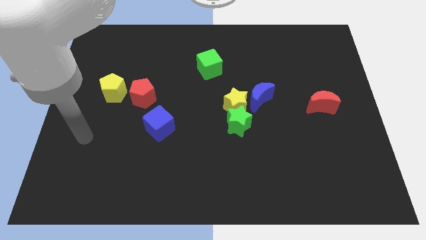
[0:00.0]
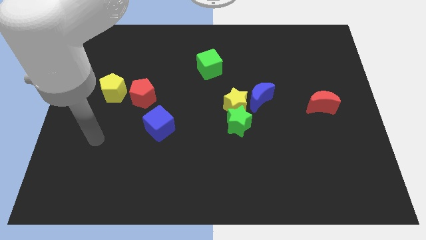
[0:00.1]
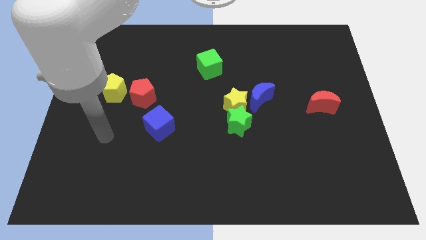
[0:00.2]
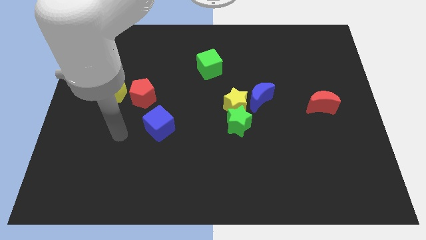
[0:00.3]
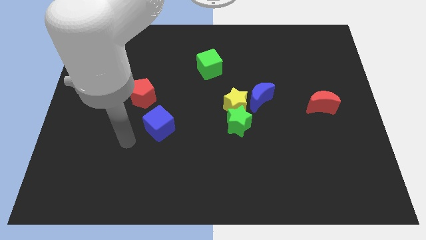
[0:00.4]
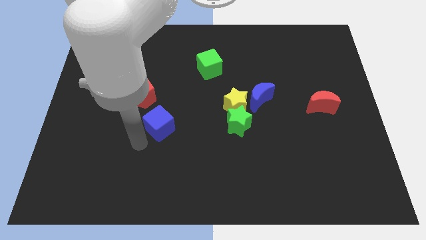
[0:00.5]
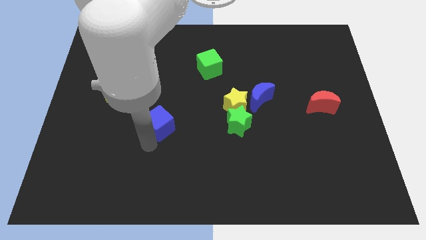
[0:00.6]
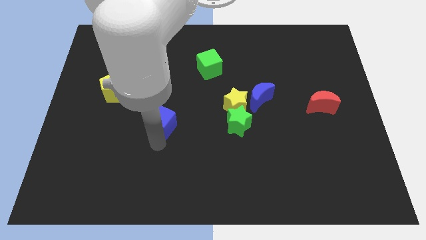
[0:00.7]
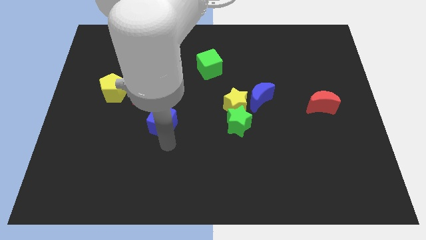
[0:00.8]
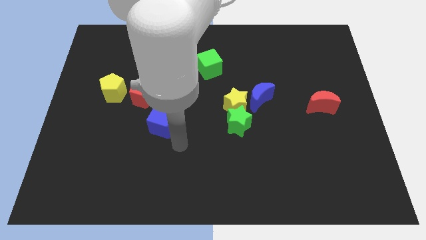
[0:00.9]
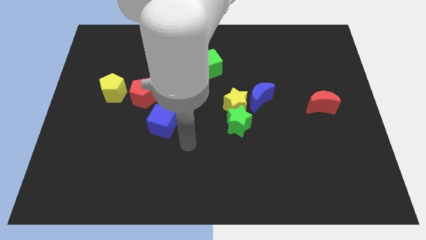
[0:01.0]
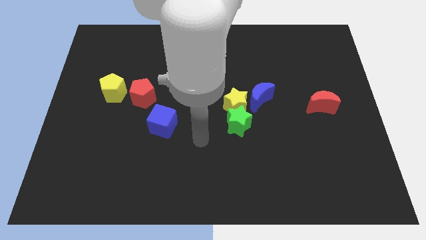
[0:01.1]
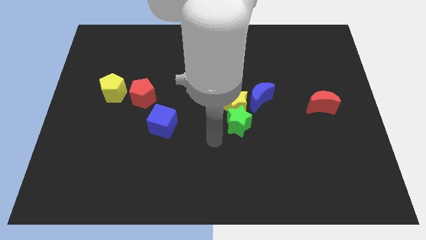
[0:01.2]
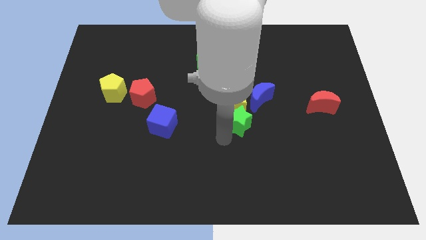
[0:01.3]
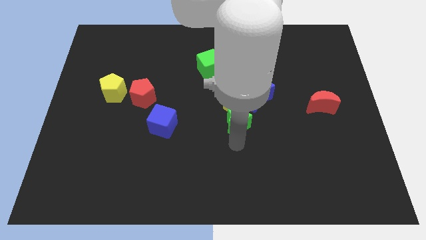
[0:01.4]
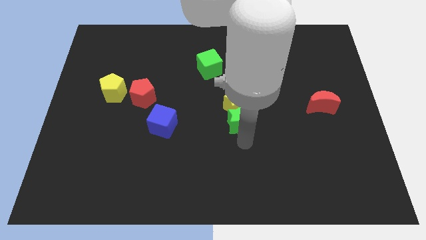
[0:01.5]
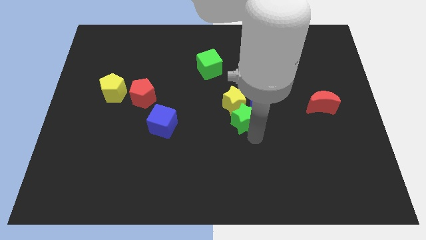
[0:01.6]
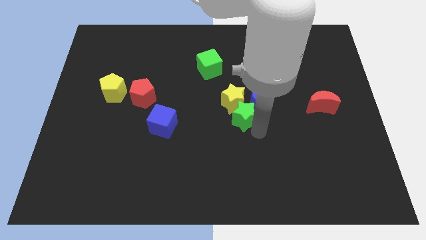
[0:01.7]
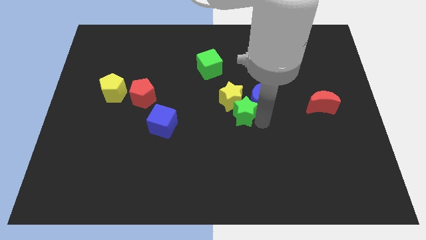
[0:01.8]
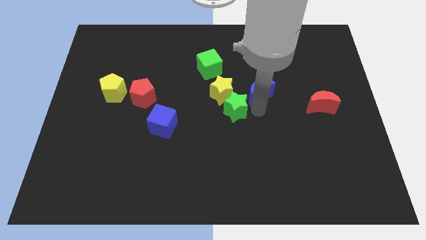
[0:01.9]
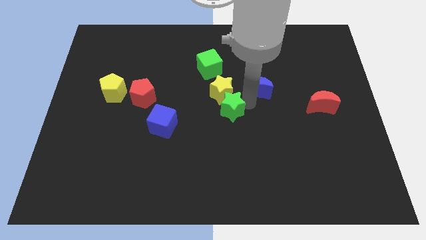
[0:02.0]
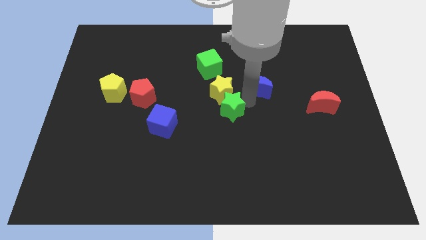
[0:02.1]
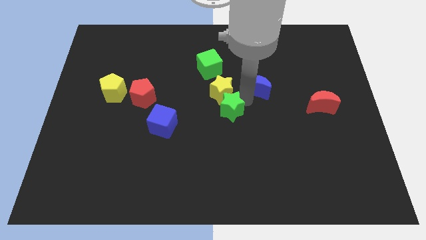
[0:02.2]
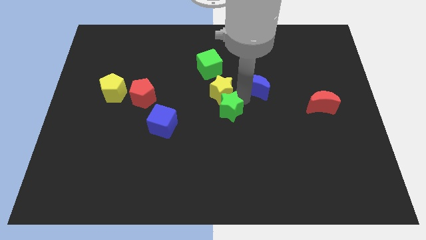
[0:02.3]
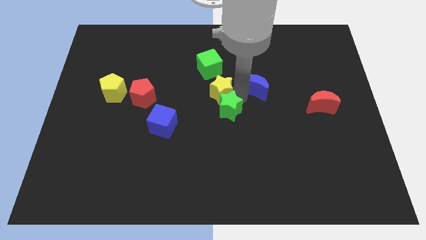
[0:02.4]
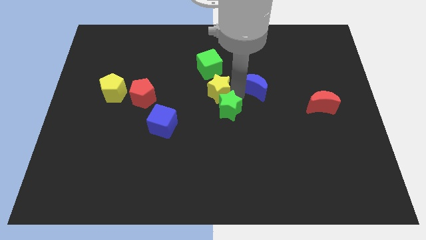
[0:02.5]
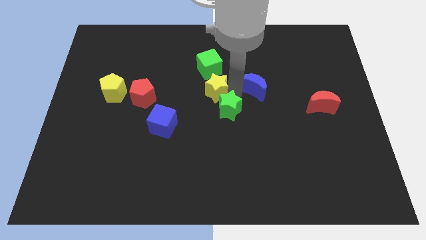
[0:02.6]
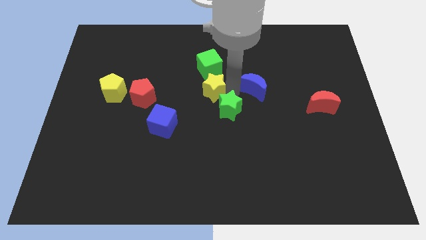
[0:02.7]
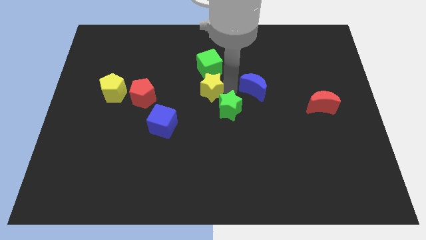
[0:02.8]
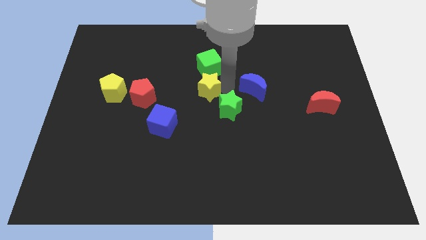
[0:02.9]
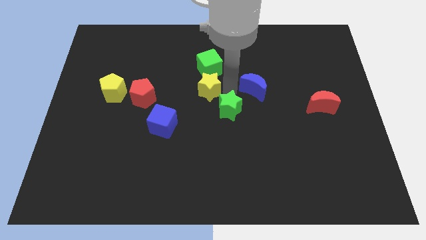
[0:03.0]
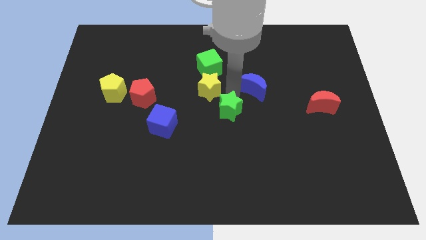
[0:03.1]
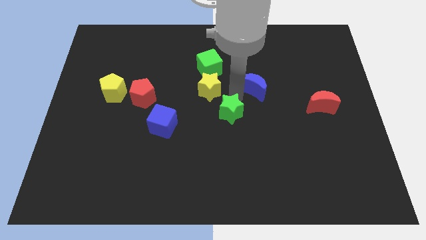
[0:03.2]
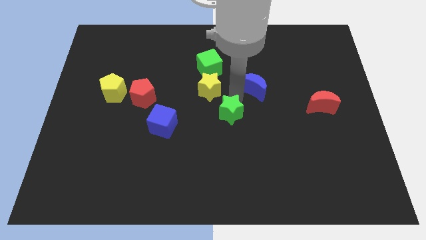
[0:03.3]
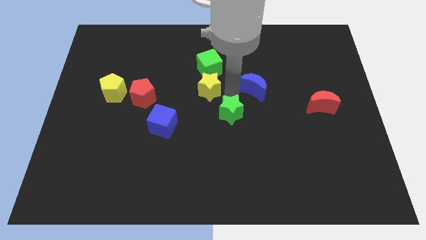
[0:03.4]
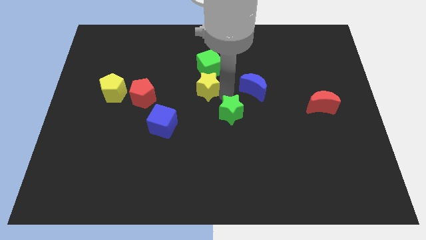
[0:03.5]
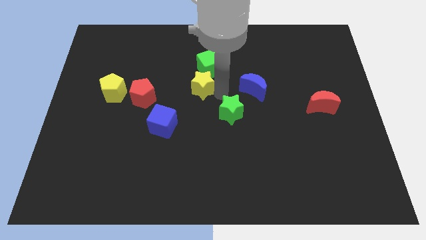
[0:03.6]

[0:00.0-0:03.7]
move the yellow star away from the green star and blue moon

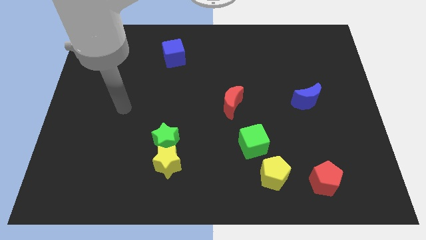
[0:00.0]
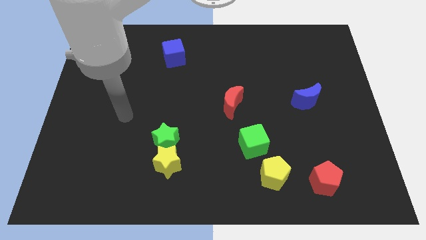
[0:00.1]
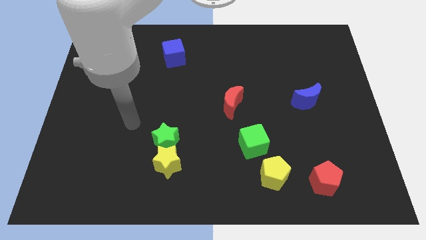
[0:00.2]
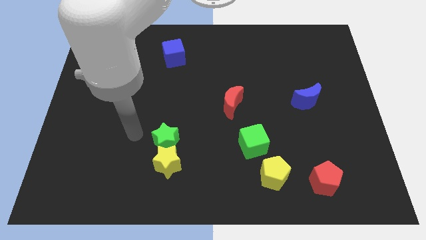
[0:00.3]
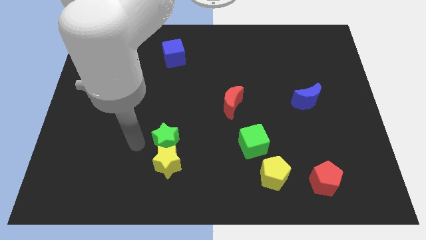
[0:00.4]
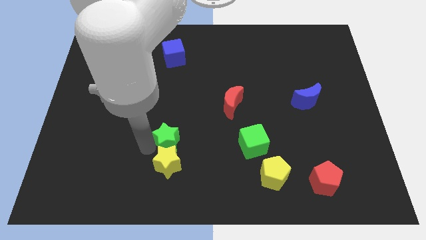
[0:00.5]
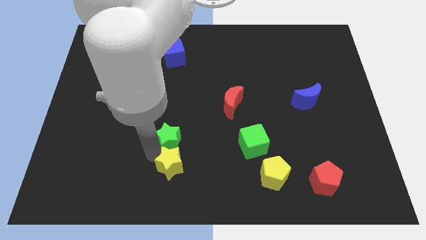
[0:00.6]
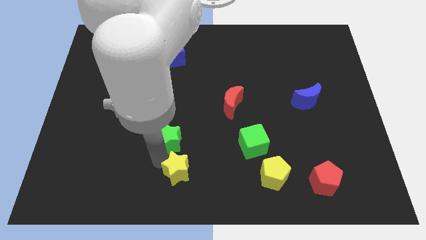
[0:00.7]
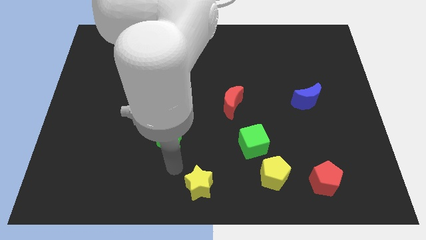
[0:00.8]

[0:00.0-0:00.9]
move the green star away from the yellow star

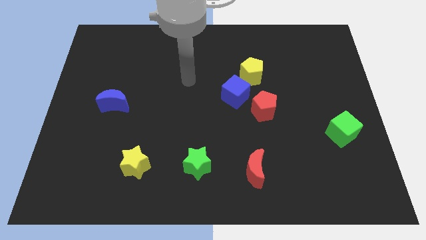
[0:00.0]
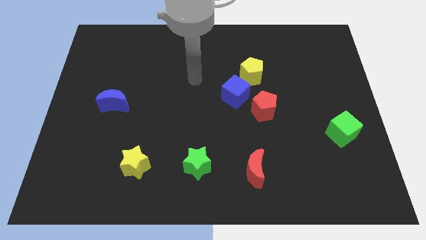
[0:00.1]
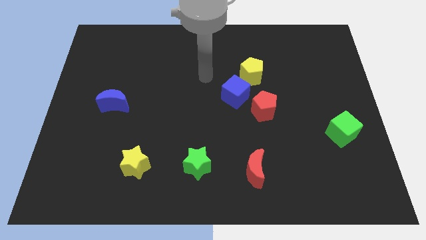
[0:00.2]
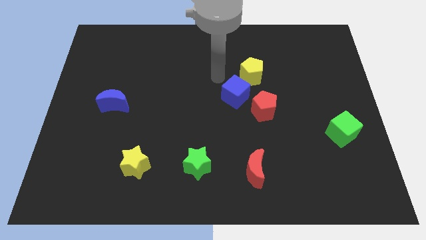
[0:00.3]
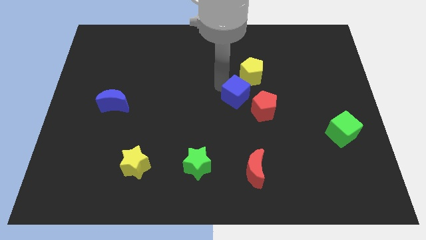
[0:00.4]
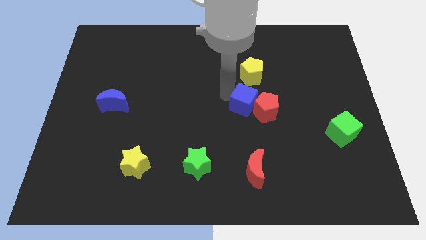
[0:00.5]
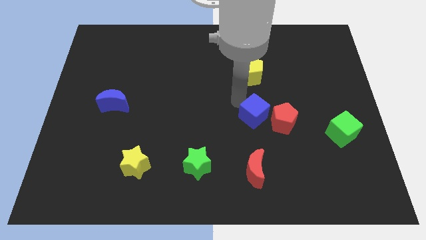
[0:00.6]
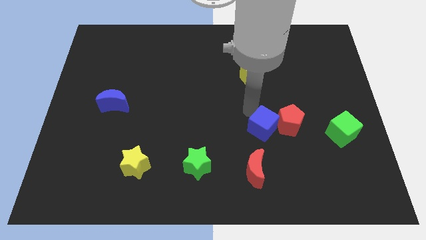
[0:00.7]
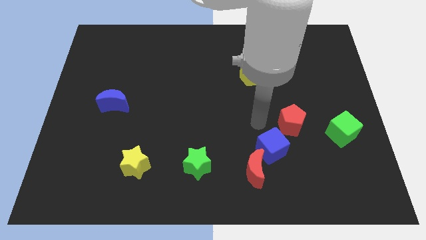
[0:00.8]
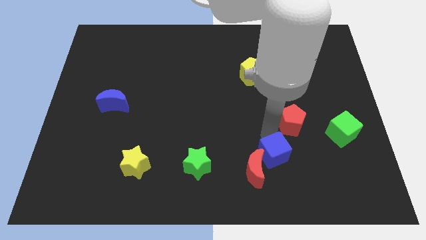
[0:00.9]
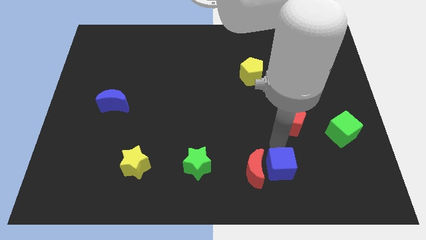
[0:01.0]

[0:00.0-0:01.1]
separate the red pentagon from the blue cube

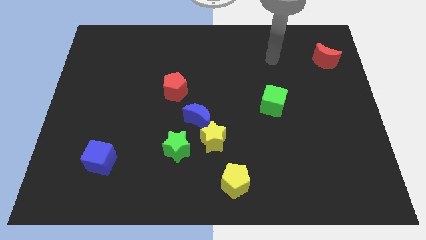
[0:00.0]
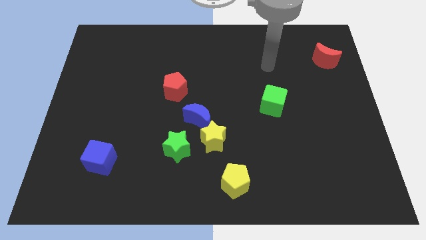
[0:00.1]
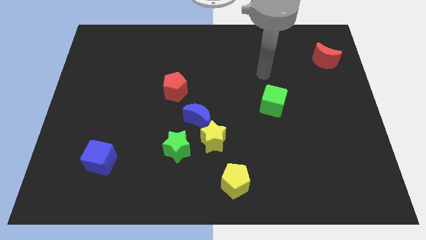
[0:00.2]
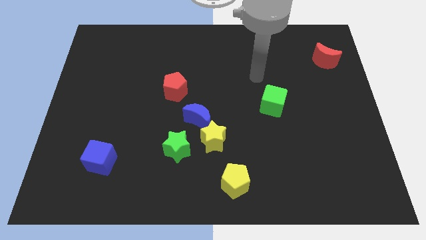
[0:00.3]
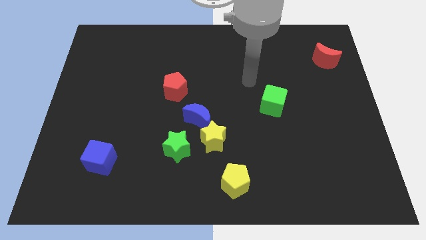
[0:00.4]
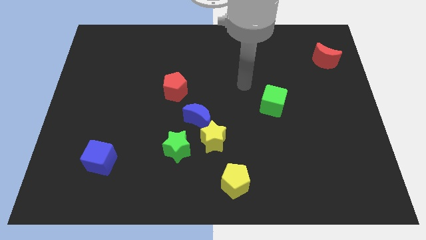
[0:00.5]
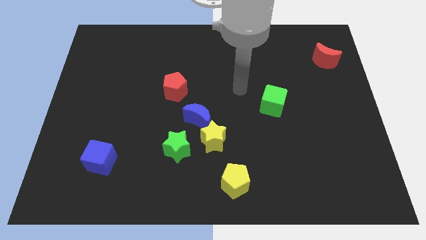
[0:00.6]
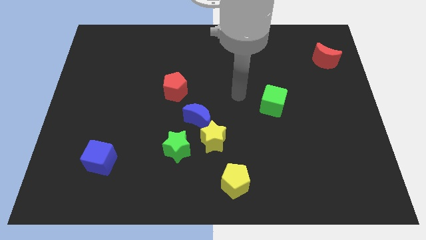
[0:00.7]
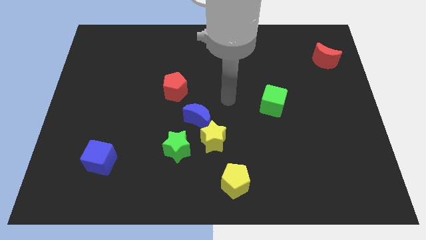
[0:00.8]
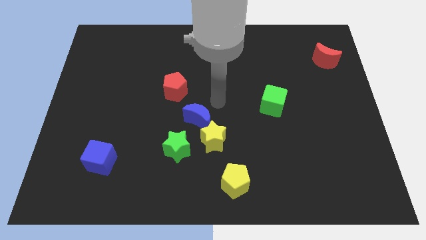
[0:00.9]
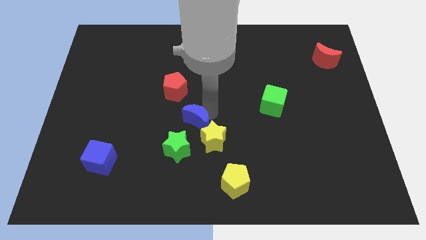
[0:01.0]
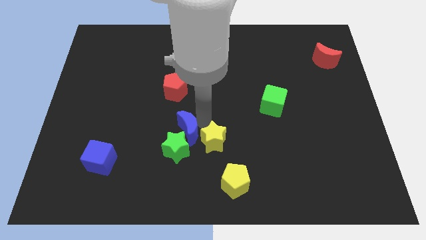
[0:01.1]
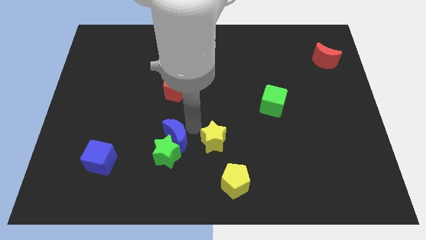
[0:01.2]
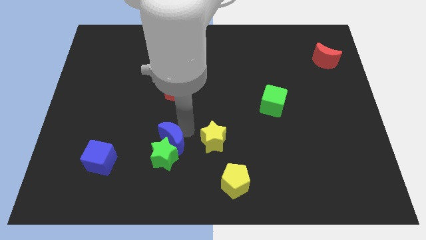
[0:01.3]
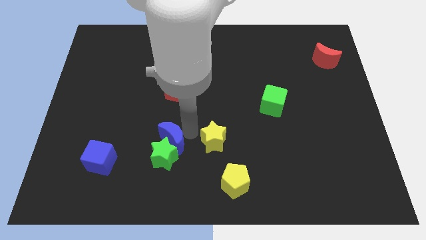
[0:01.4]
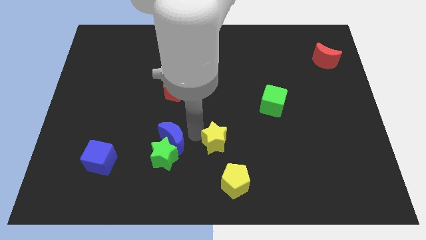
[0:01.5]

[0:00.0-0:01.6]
pull the yellow star apart from the blue moon and green star

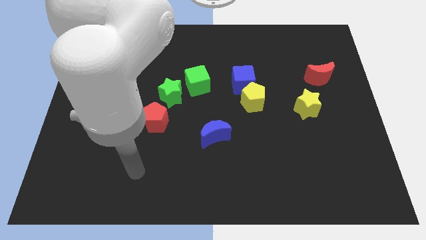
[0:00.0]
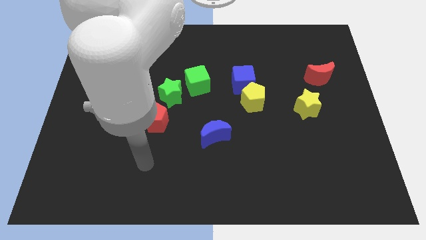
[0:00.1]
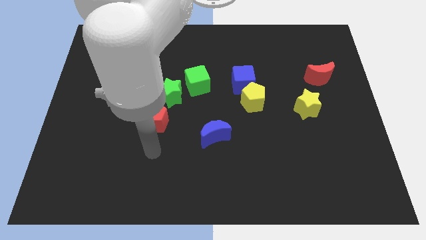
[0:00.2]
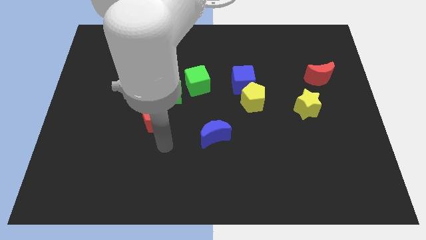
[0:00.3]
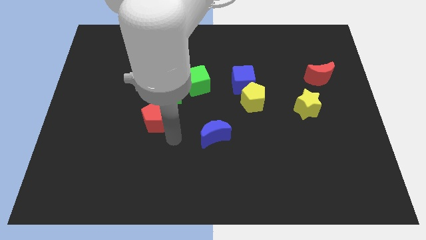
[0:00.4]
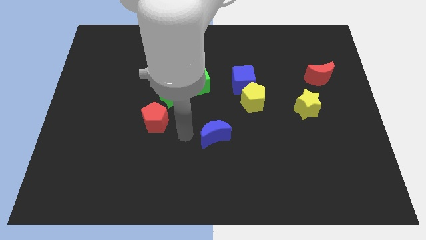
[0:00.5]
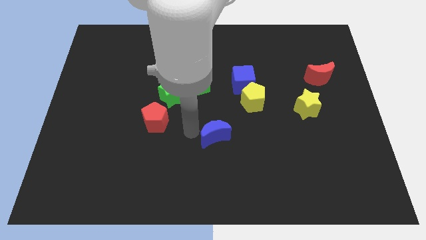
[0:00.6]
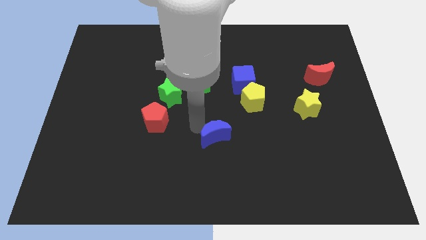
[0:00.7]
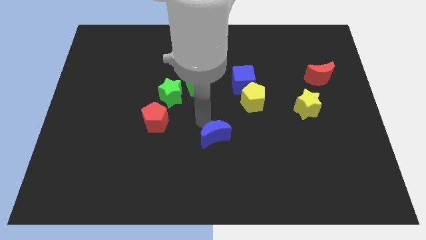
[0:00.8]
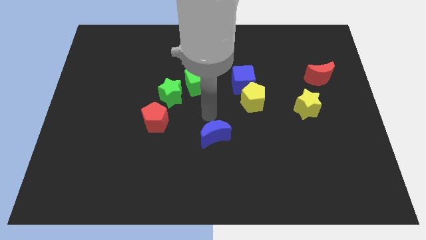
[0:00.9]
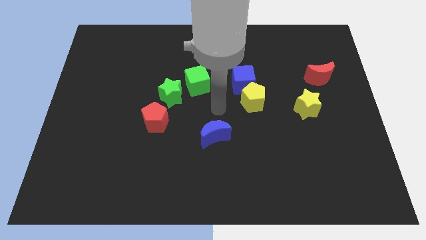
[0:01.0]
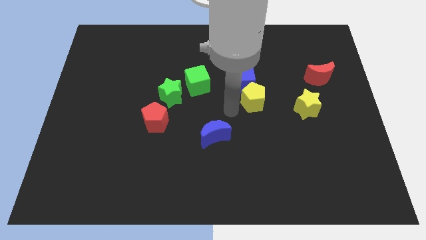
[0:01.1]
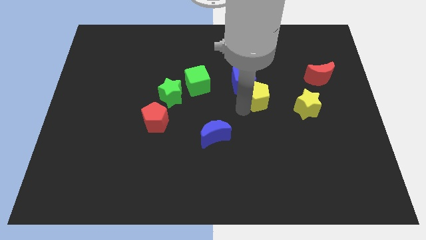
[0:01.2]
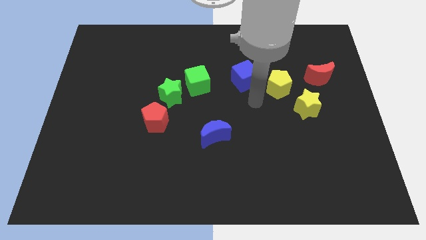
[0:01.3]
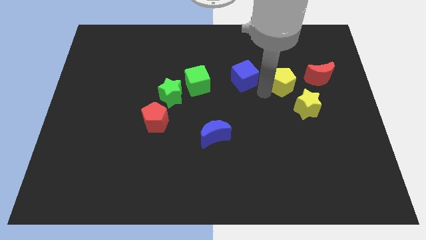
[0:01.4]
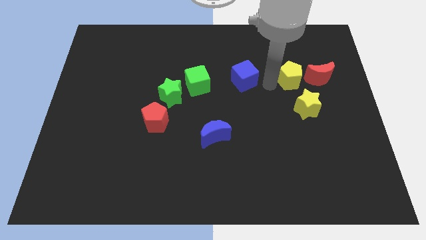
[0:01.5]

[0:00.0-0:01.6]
separate the blue cube from the yellow pentagon

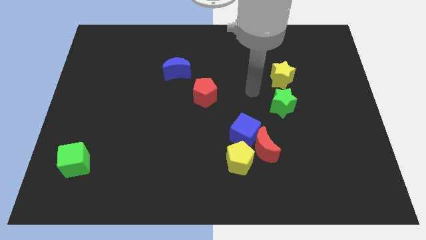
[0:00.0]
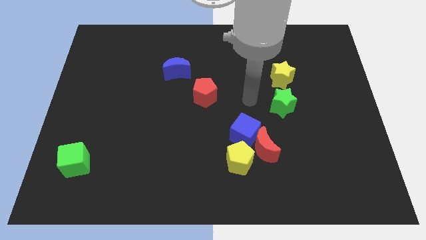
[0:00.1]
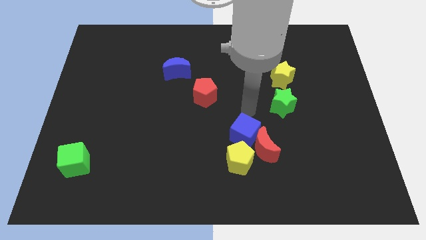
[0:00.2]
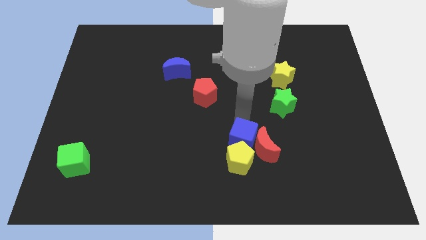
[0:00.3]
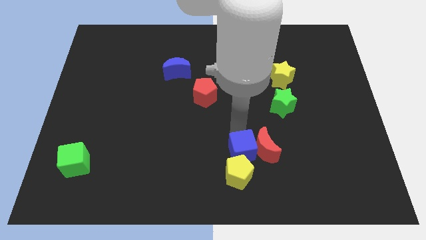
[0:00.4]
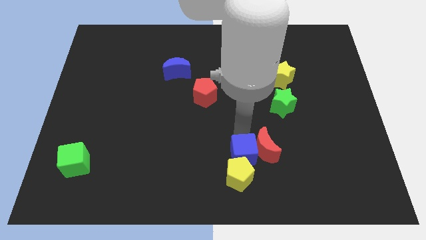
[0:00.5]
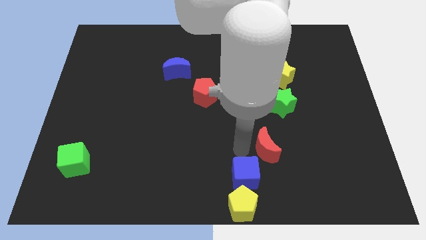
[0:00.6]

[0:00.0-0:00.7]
pull the red moon apart from the blue cube and yellow pentagon
